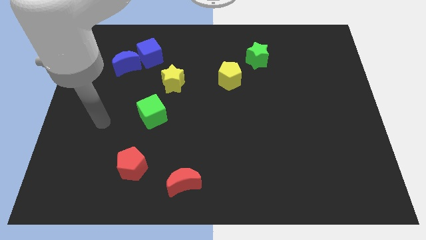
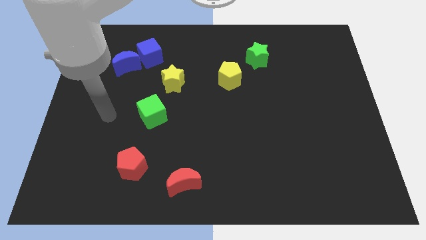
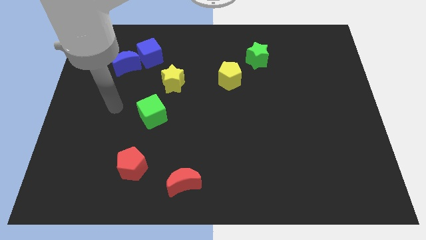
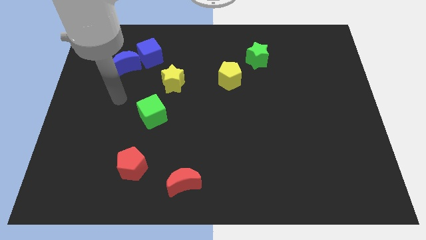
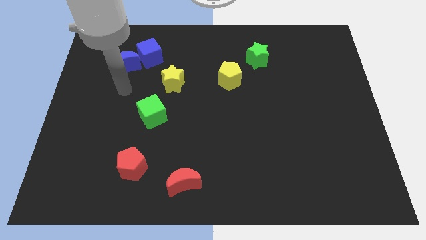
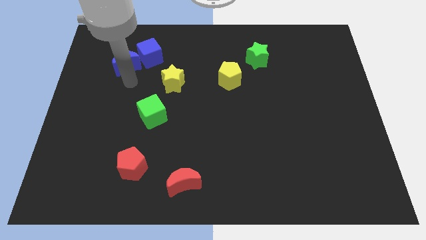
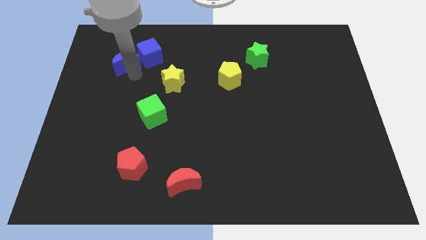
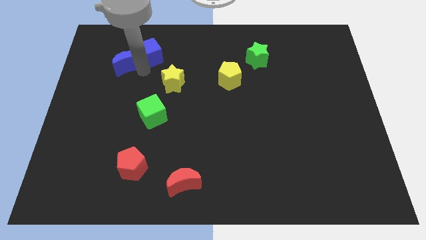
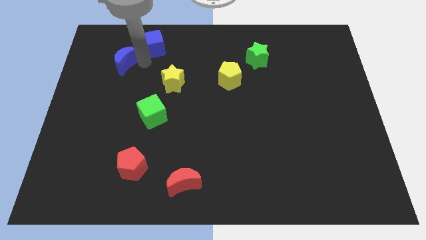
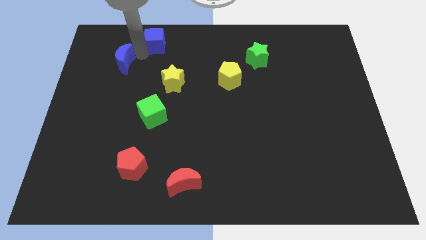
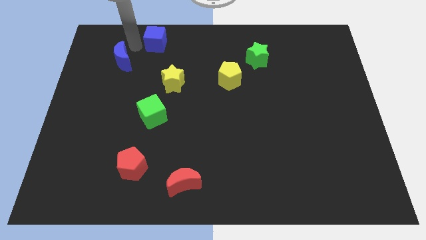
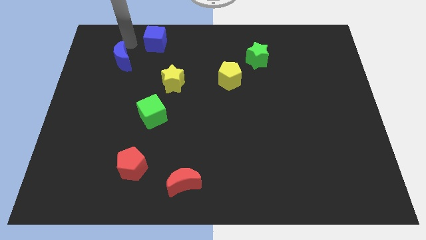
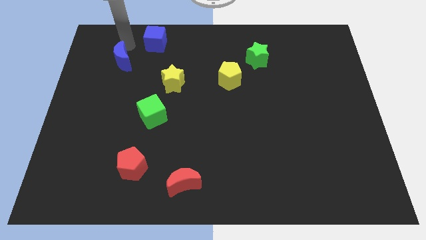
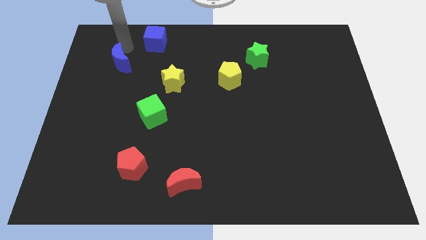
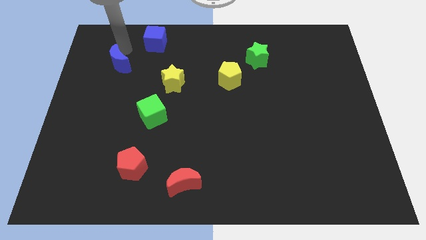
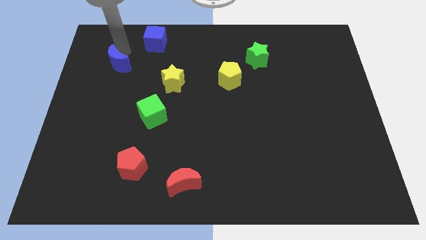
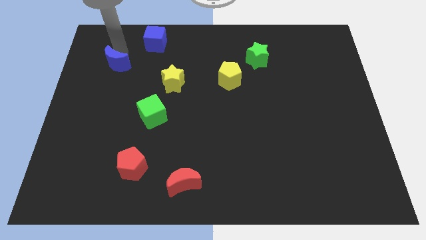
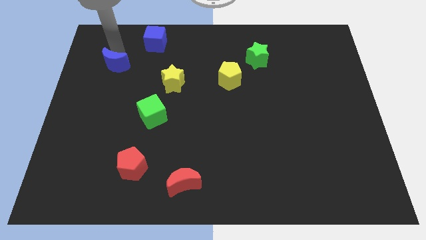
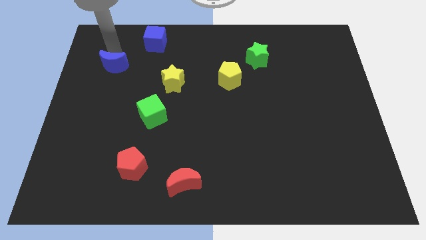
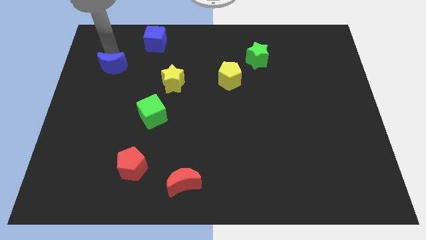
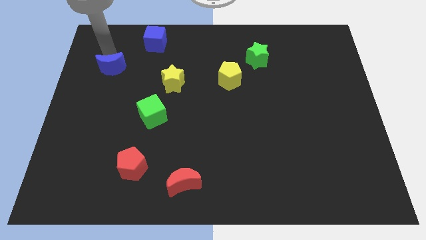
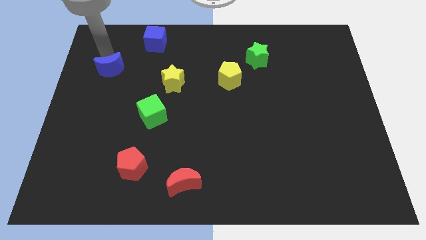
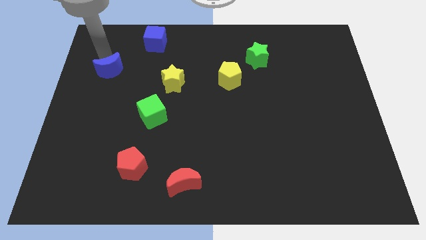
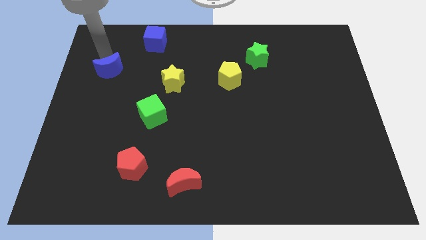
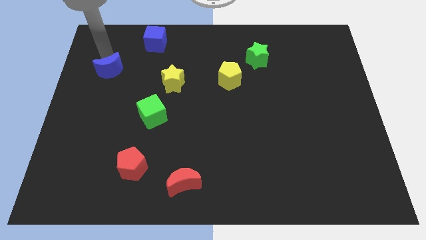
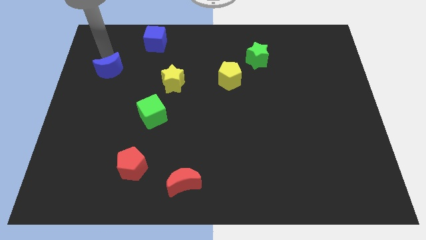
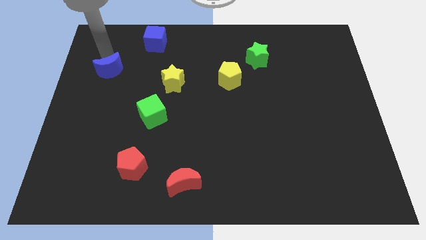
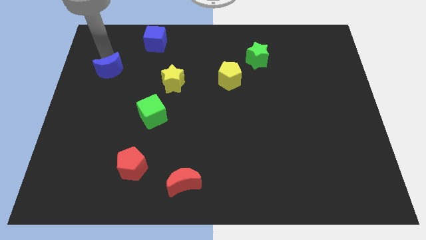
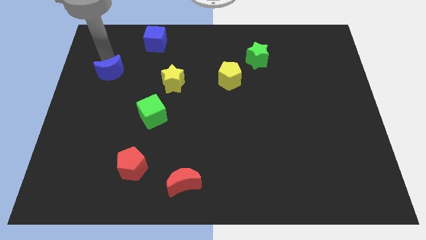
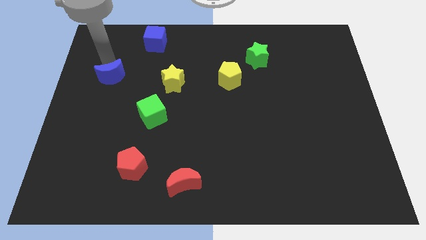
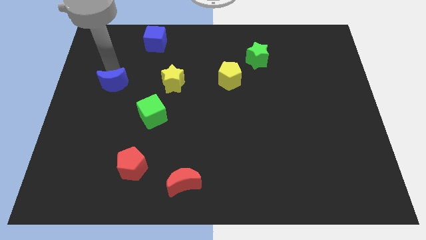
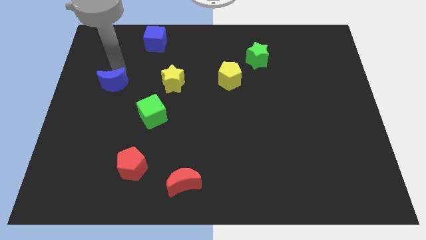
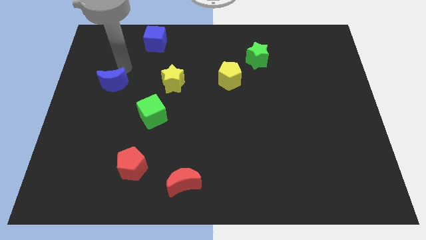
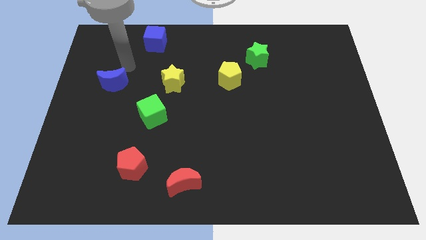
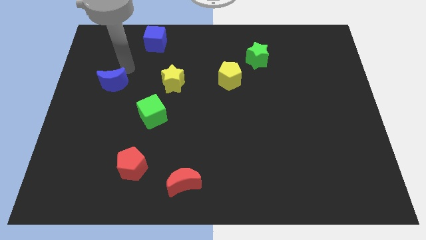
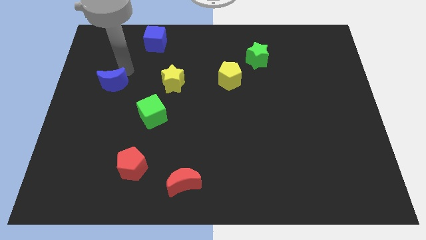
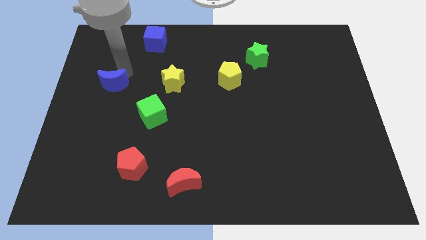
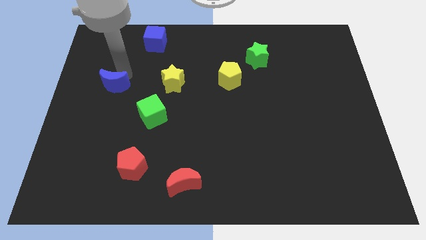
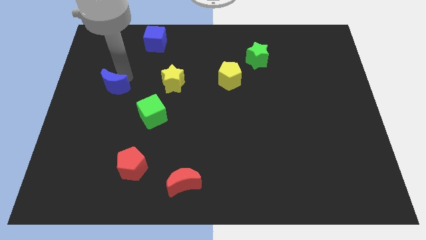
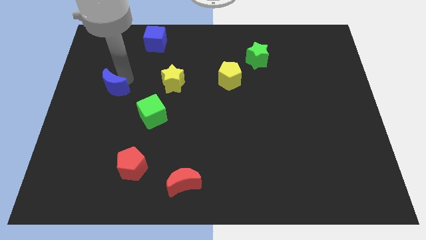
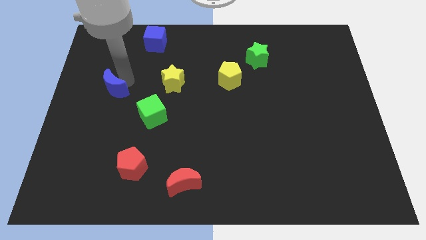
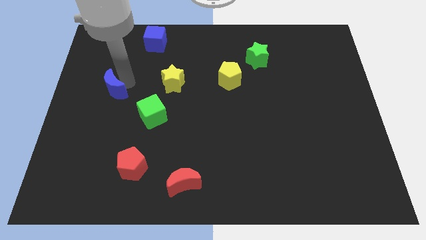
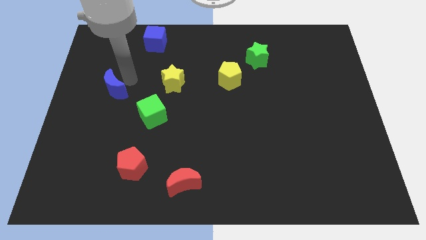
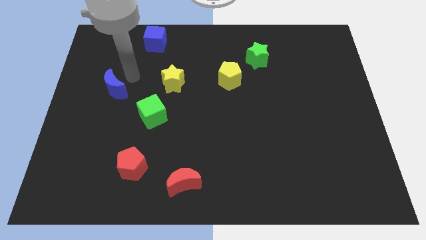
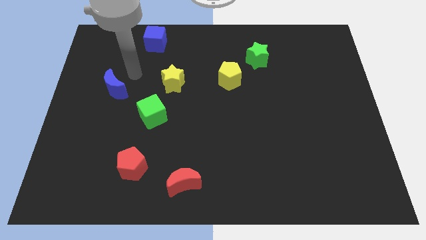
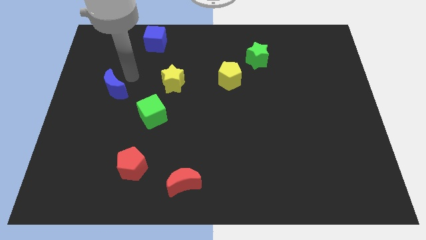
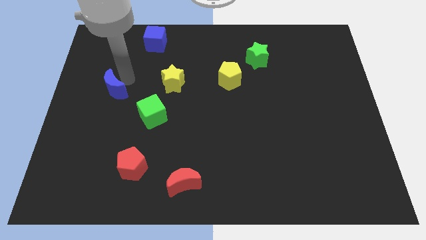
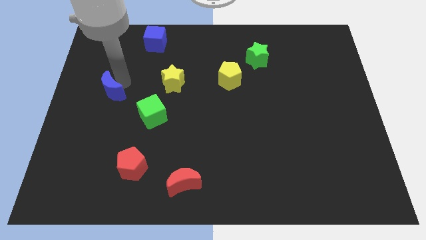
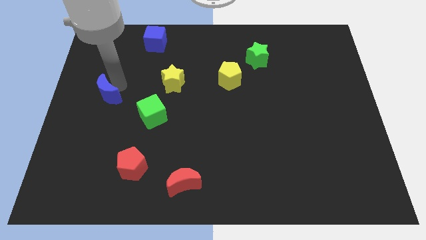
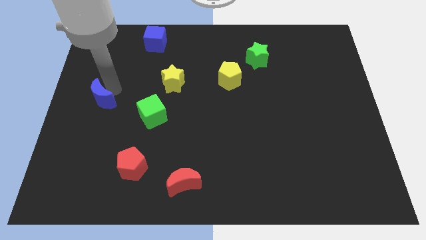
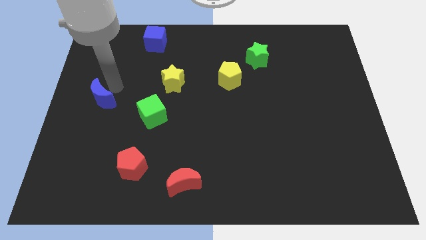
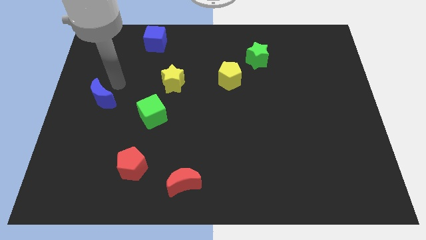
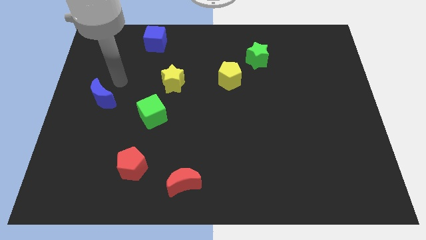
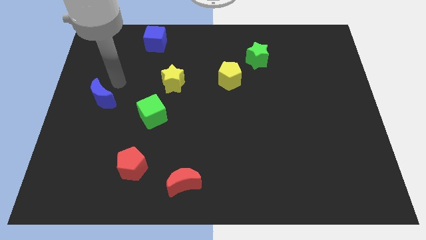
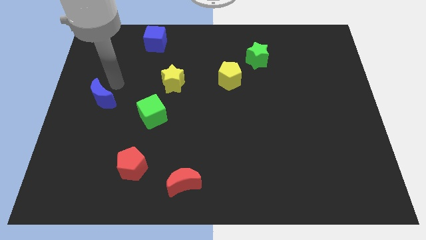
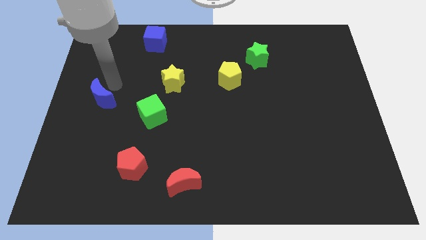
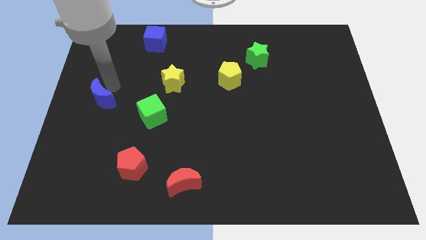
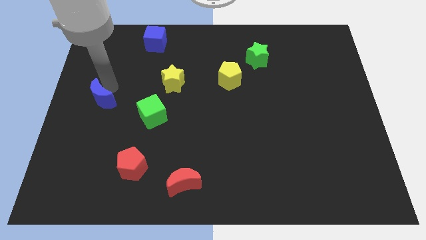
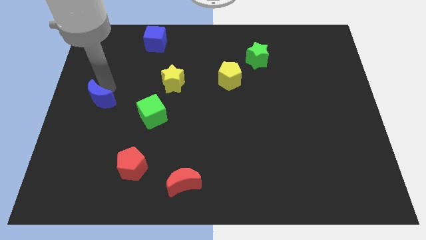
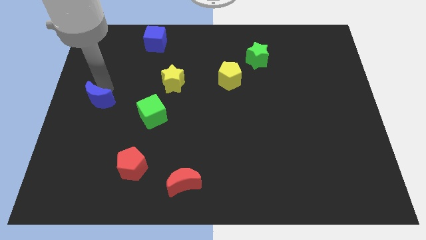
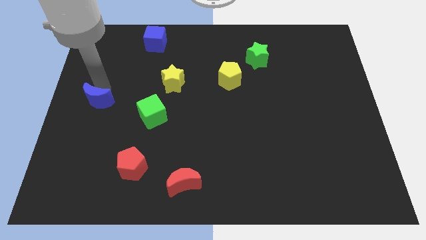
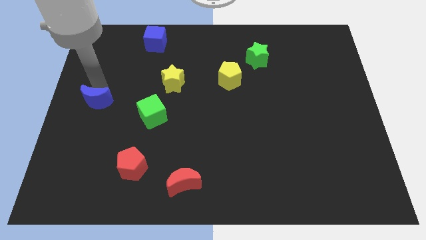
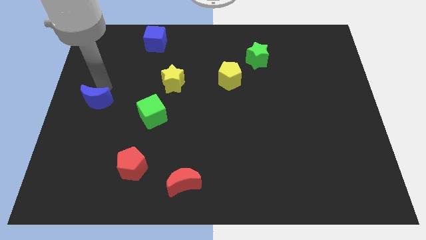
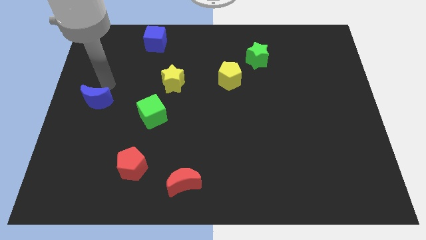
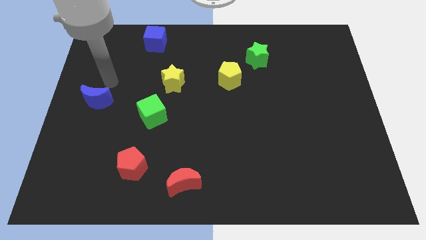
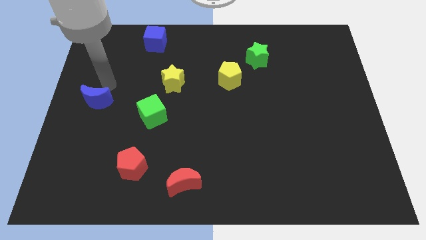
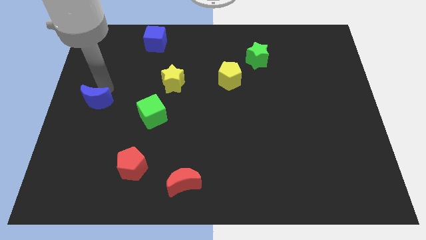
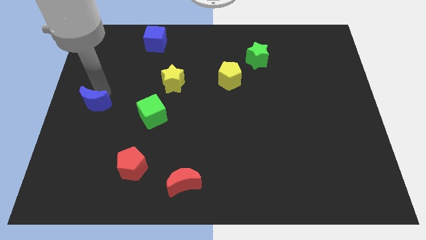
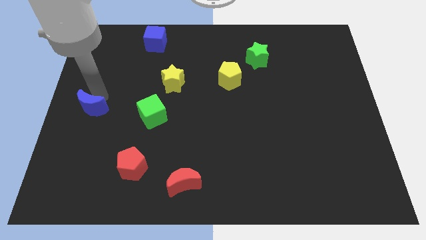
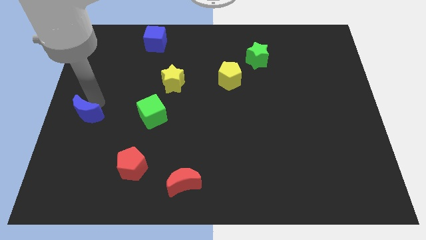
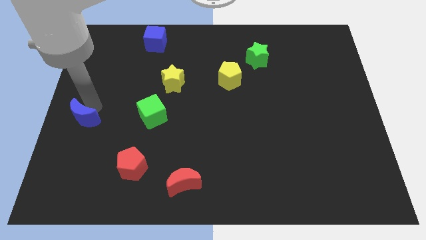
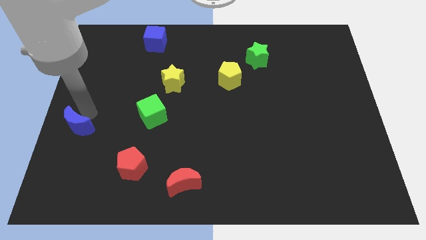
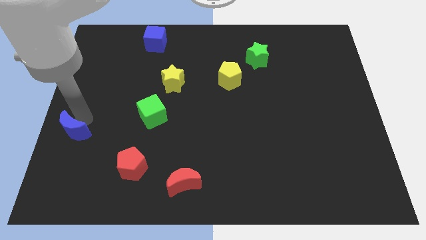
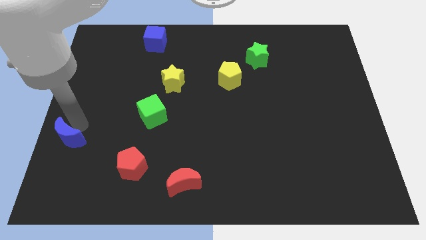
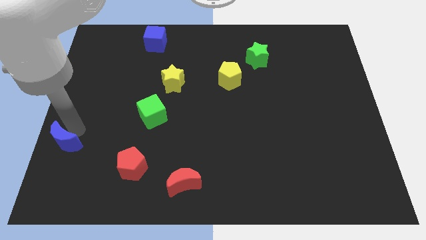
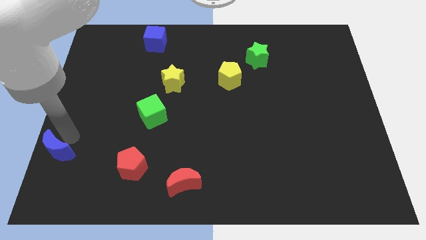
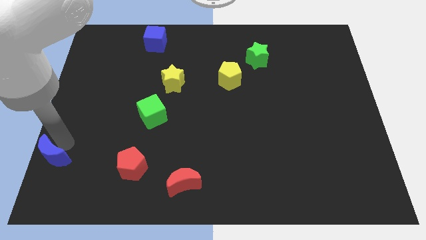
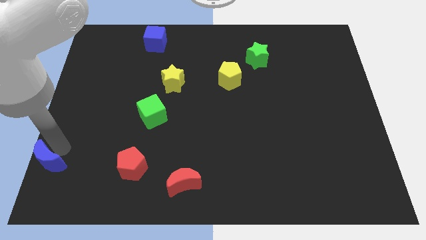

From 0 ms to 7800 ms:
put the blue moon to the bottom left of the board
